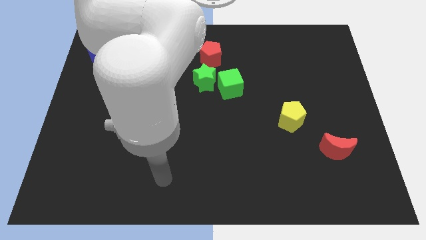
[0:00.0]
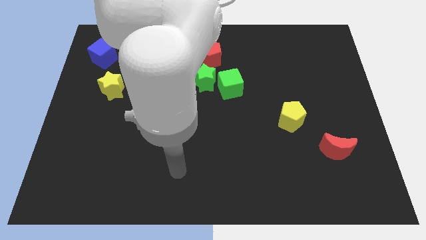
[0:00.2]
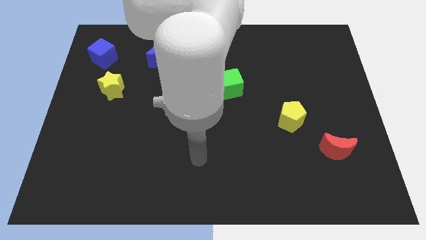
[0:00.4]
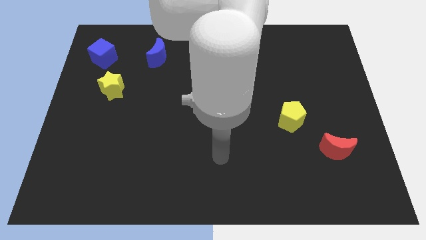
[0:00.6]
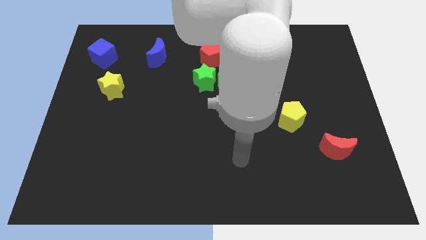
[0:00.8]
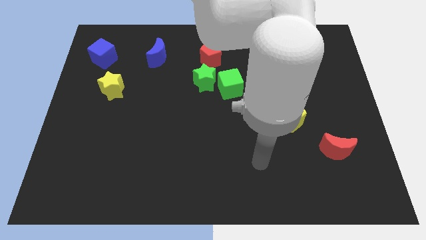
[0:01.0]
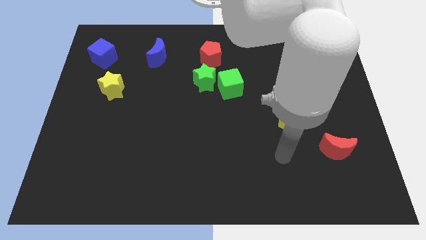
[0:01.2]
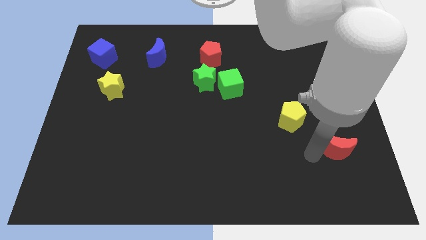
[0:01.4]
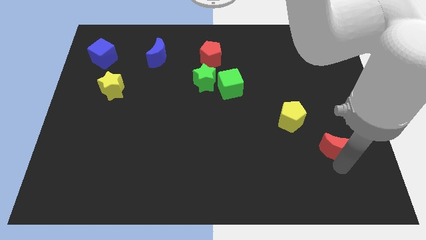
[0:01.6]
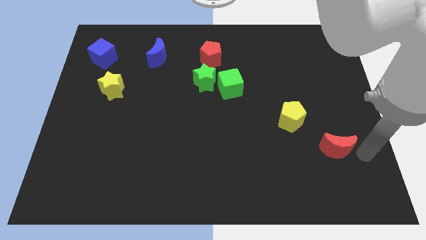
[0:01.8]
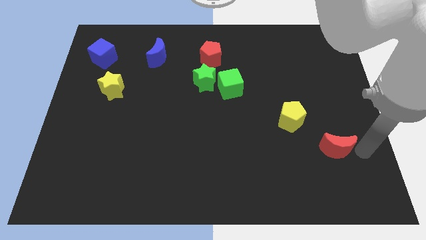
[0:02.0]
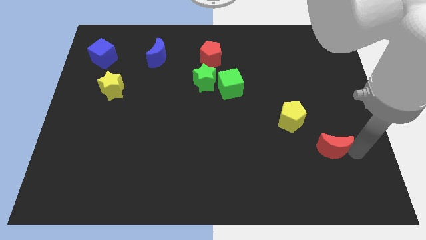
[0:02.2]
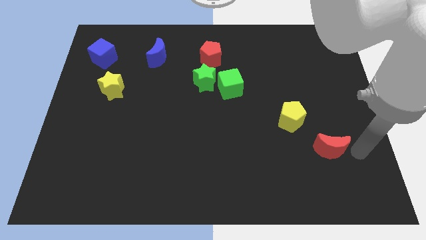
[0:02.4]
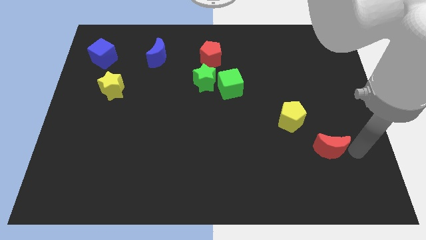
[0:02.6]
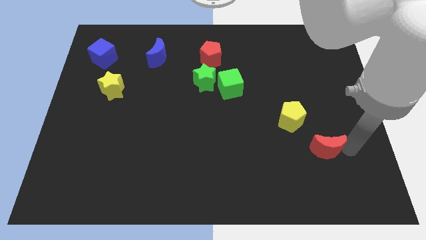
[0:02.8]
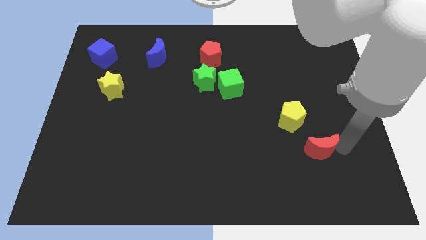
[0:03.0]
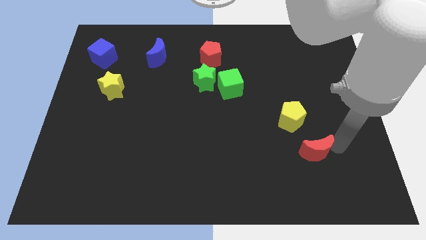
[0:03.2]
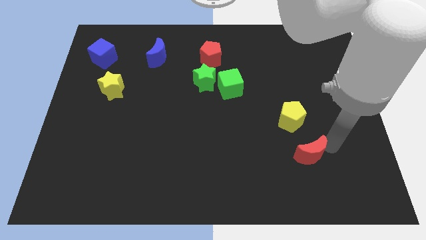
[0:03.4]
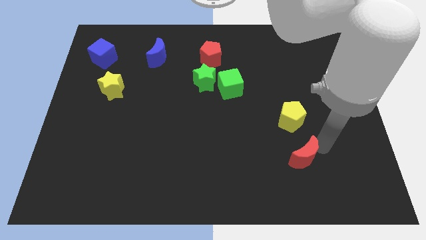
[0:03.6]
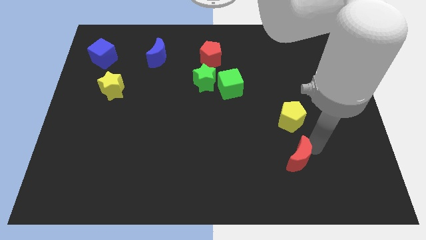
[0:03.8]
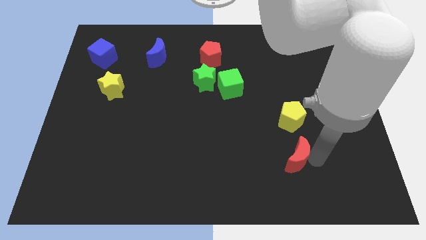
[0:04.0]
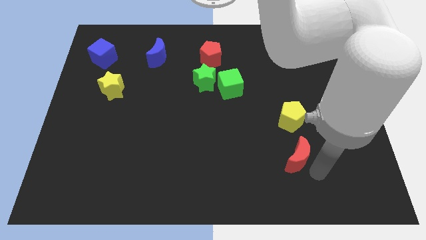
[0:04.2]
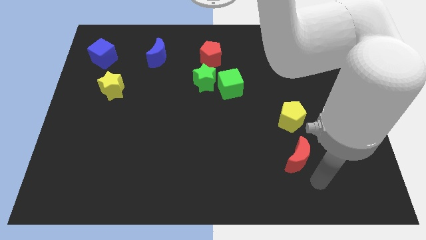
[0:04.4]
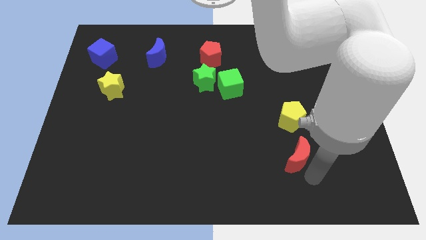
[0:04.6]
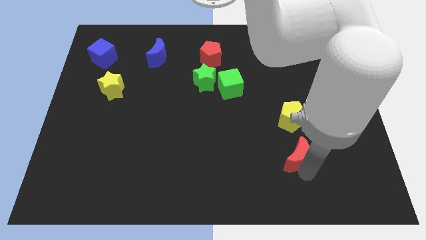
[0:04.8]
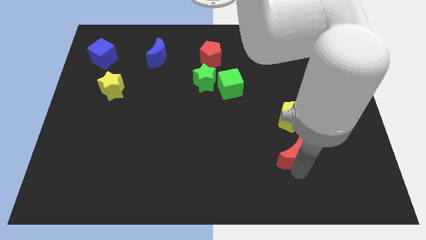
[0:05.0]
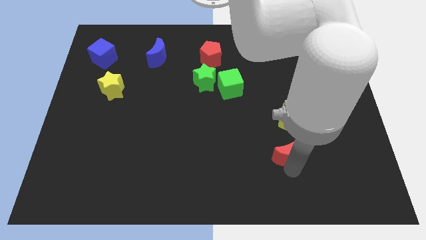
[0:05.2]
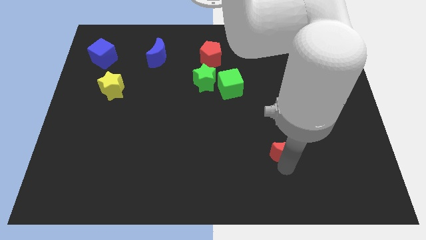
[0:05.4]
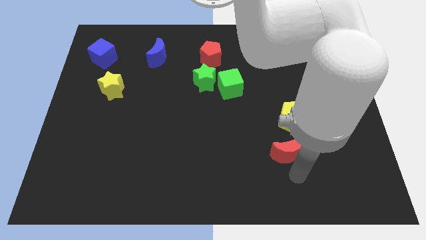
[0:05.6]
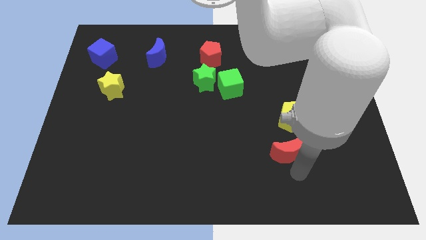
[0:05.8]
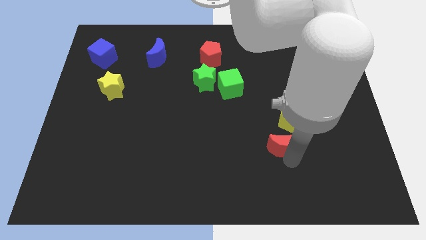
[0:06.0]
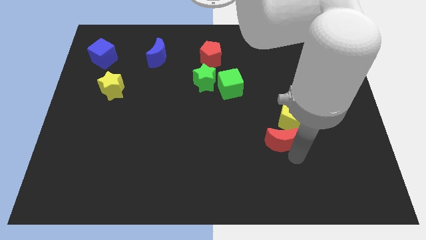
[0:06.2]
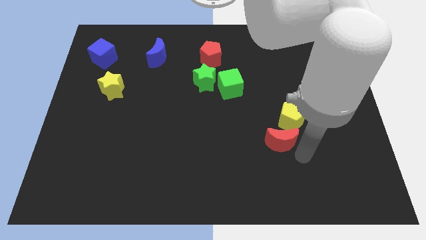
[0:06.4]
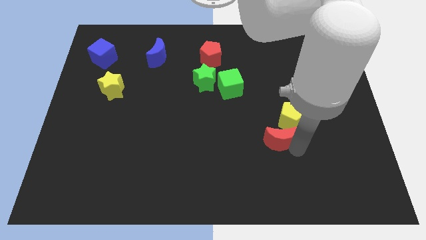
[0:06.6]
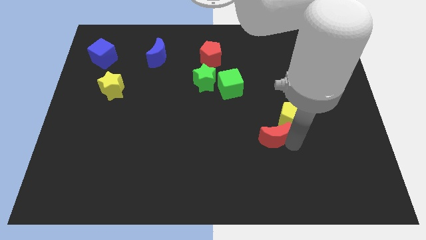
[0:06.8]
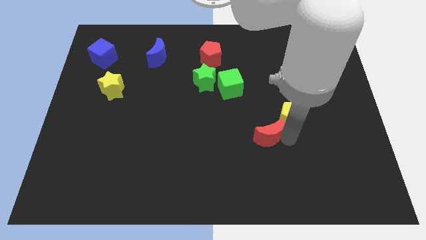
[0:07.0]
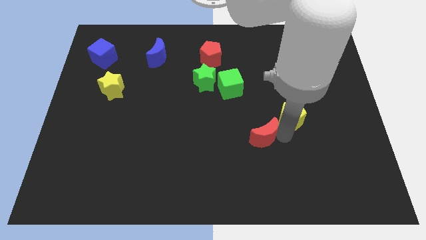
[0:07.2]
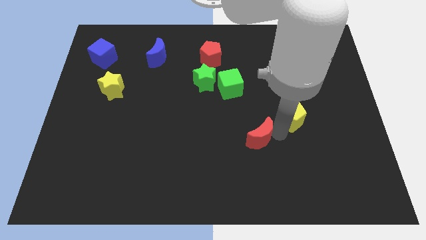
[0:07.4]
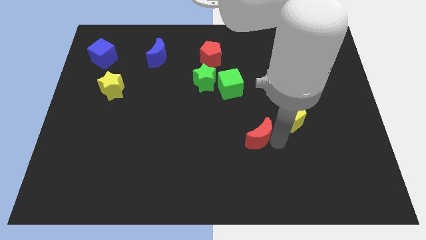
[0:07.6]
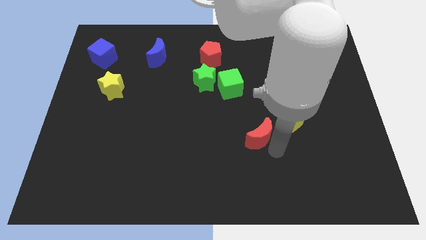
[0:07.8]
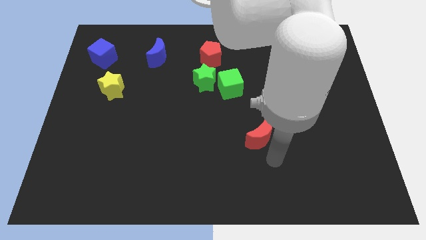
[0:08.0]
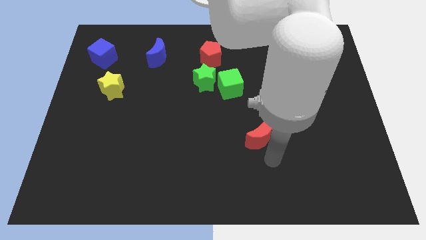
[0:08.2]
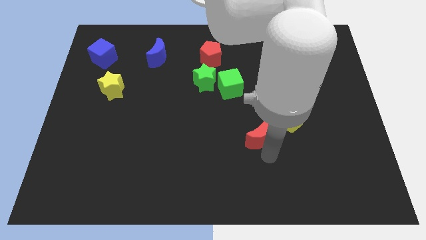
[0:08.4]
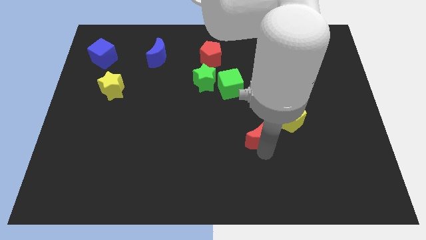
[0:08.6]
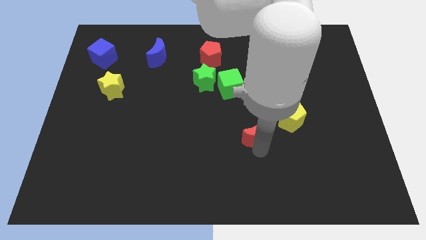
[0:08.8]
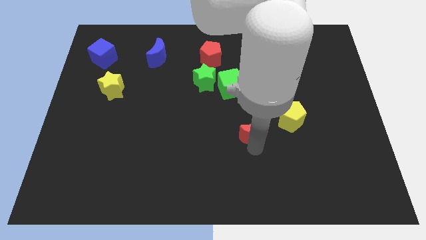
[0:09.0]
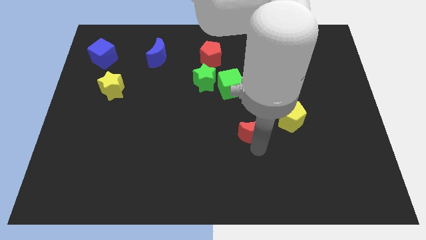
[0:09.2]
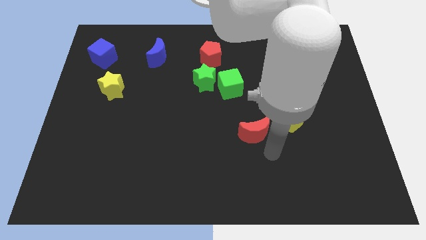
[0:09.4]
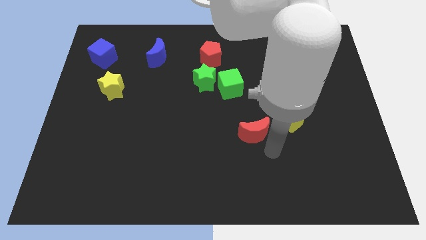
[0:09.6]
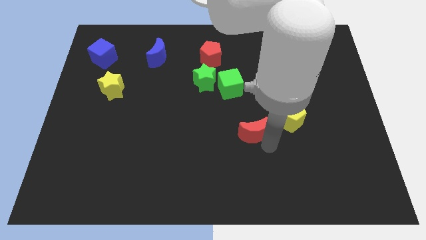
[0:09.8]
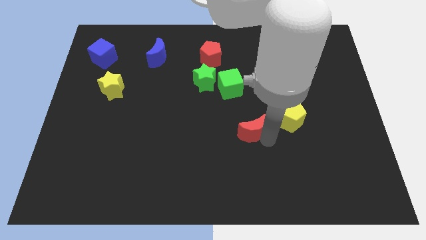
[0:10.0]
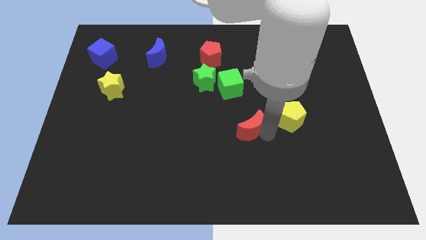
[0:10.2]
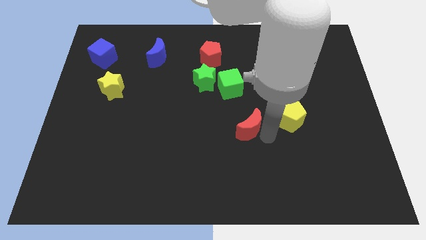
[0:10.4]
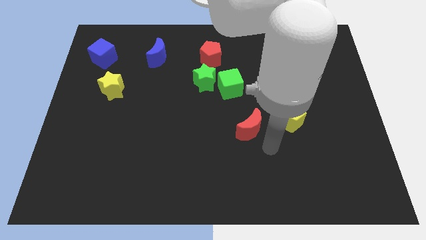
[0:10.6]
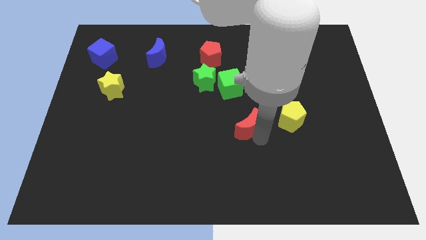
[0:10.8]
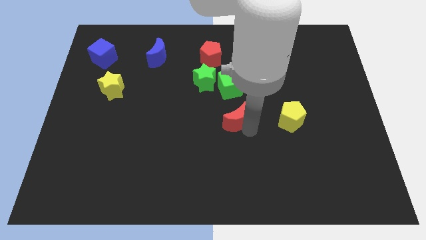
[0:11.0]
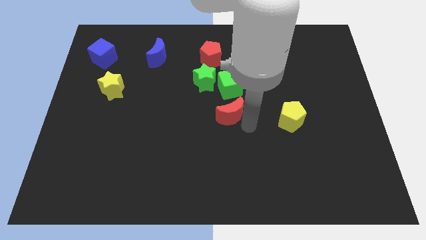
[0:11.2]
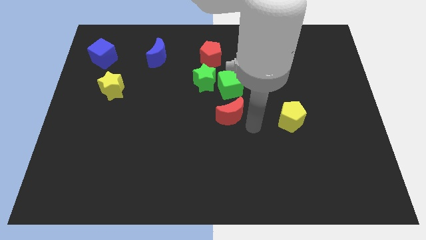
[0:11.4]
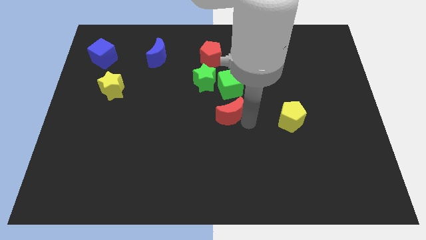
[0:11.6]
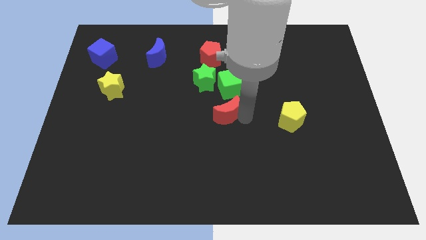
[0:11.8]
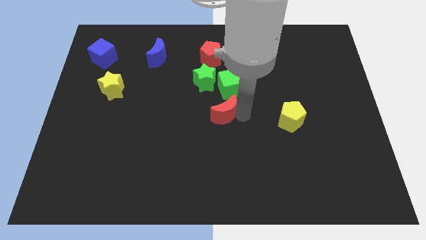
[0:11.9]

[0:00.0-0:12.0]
push the red moon to the bottom left side of the green cube

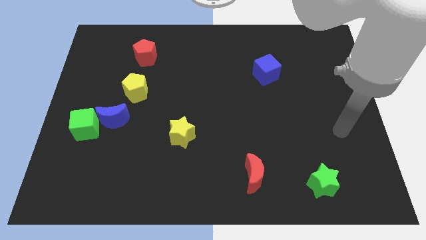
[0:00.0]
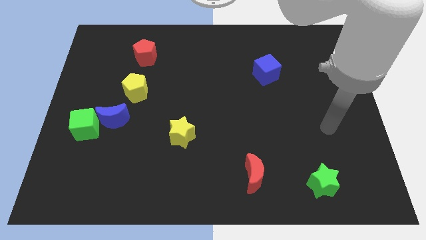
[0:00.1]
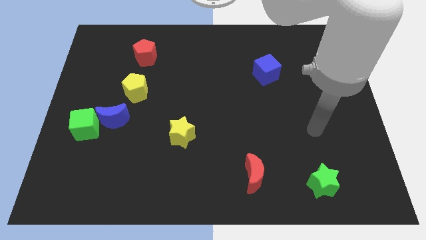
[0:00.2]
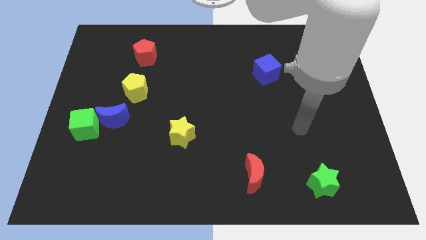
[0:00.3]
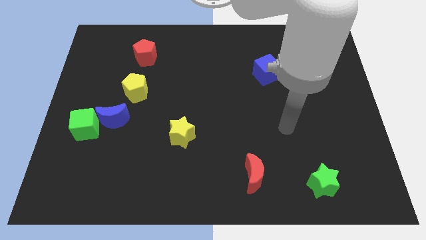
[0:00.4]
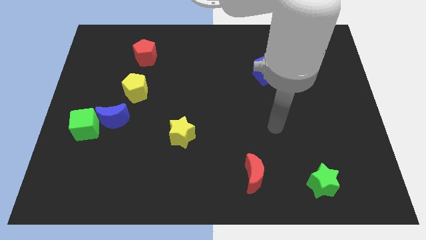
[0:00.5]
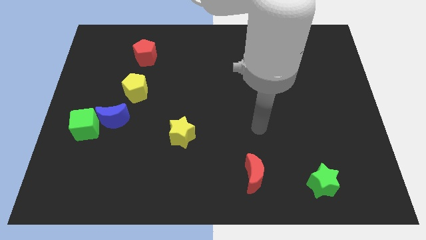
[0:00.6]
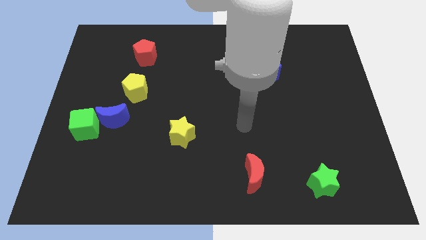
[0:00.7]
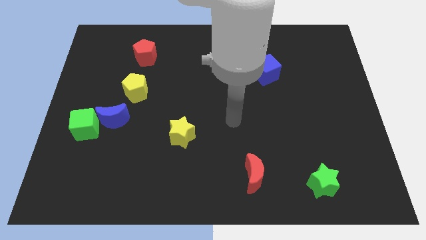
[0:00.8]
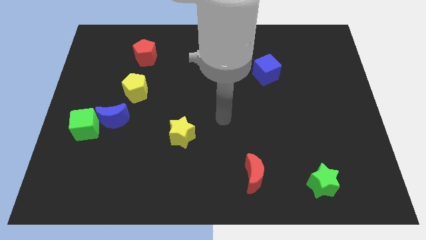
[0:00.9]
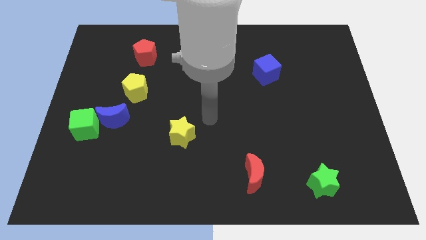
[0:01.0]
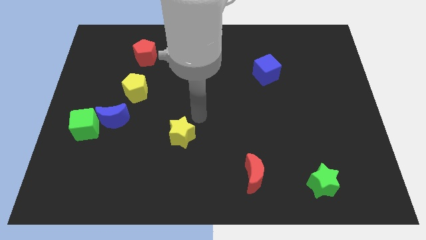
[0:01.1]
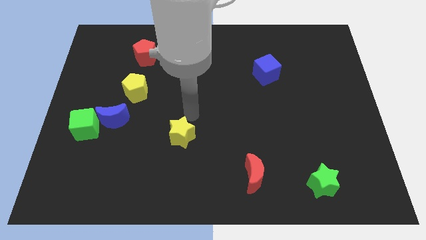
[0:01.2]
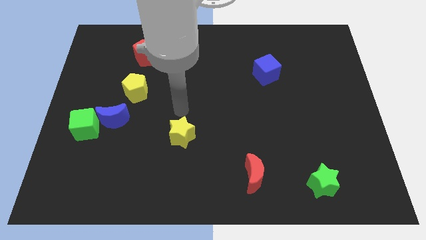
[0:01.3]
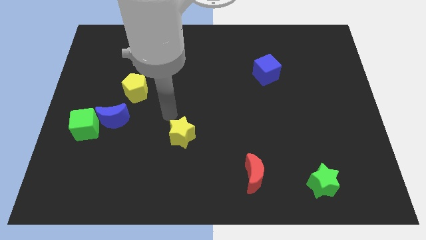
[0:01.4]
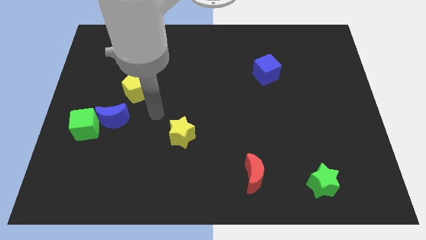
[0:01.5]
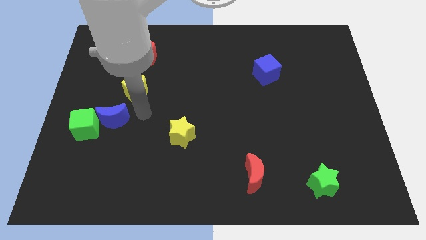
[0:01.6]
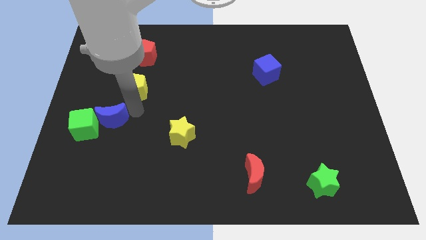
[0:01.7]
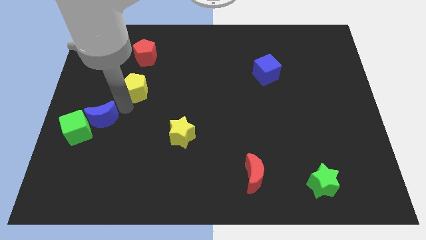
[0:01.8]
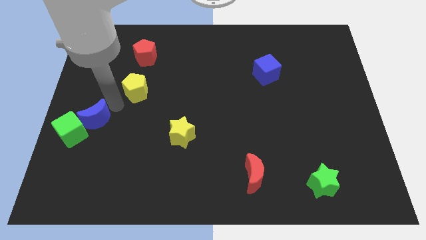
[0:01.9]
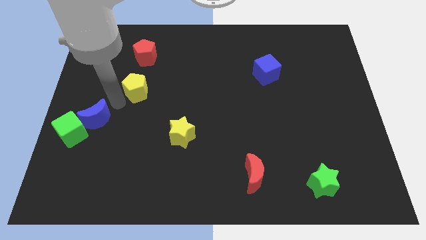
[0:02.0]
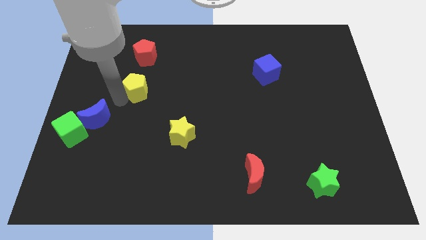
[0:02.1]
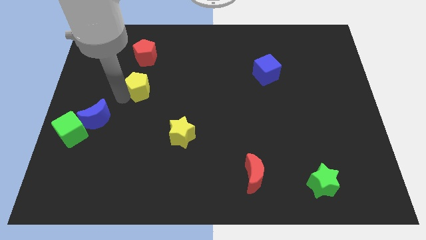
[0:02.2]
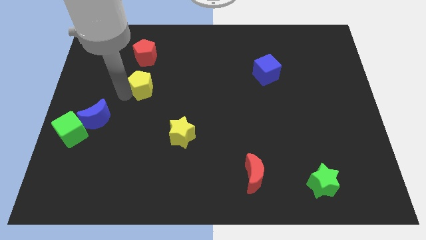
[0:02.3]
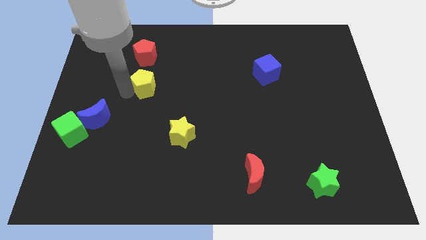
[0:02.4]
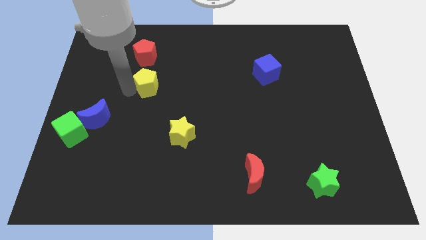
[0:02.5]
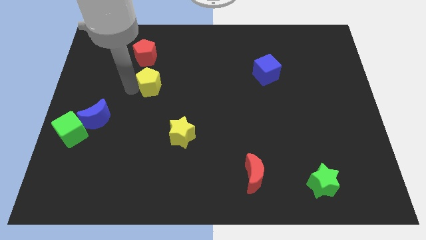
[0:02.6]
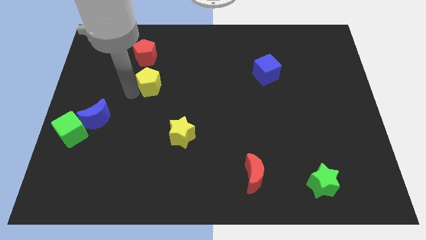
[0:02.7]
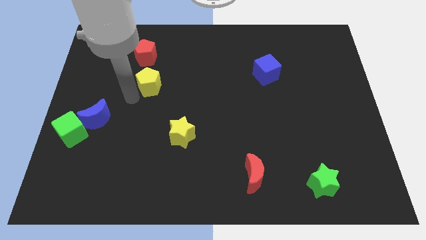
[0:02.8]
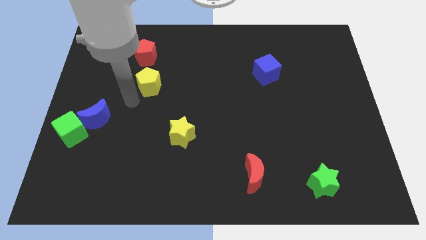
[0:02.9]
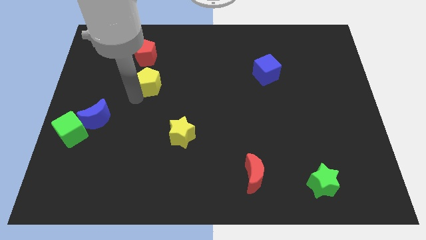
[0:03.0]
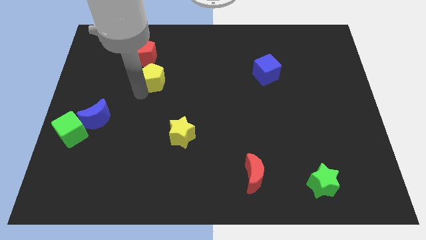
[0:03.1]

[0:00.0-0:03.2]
push the yellow pentagon to the bottom right side of the red pentagon
